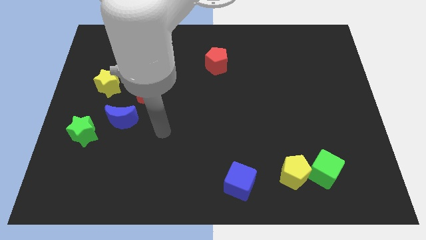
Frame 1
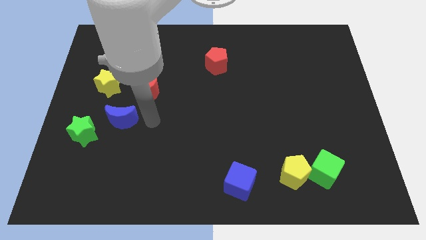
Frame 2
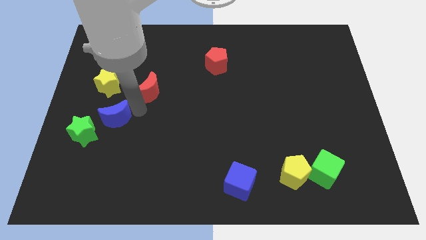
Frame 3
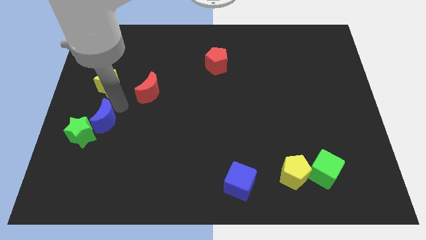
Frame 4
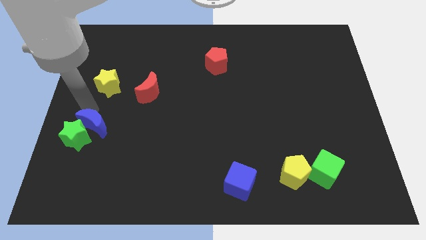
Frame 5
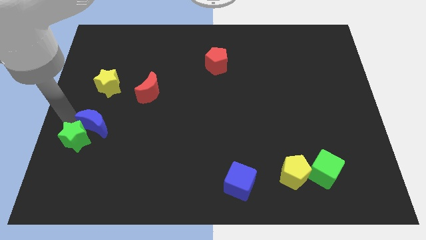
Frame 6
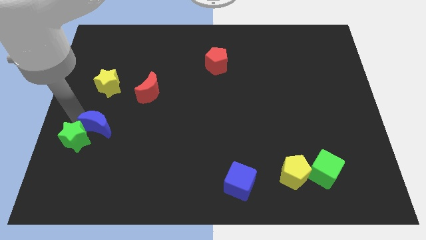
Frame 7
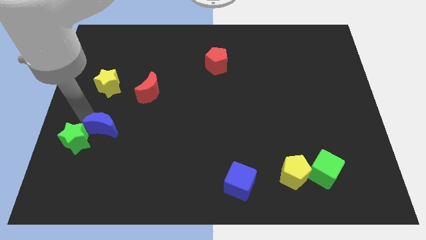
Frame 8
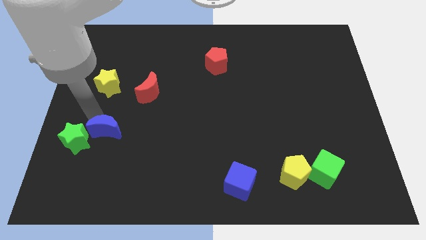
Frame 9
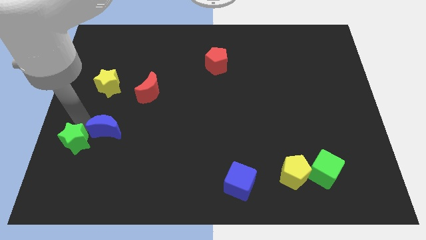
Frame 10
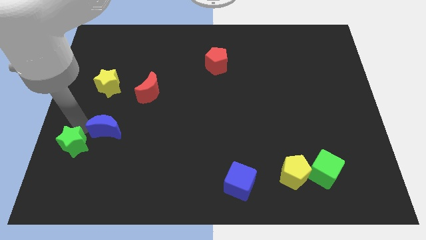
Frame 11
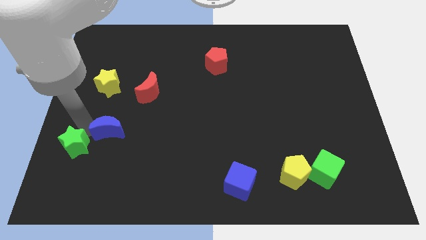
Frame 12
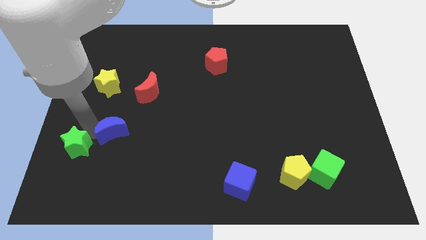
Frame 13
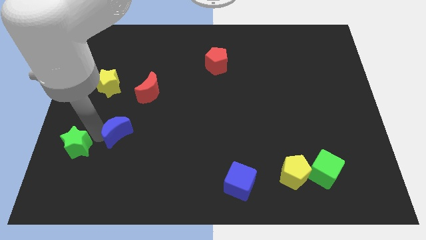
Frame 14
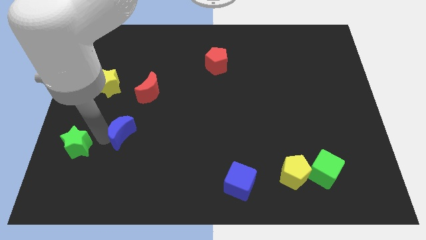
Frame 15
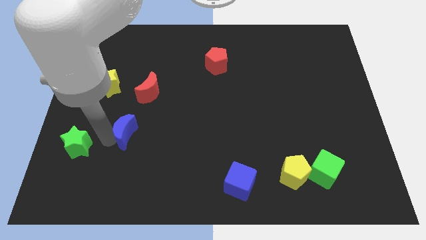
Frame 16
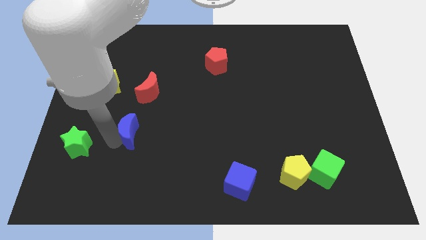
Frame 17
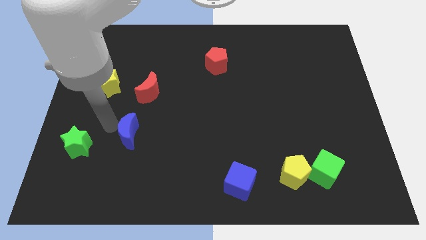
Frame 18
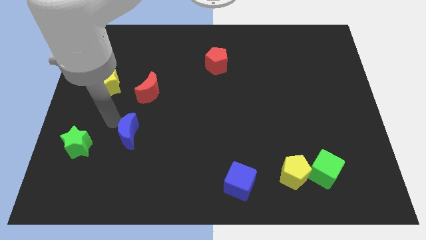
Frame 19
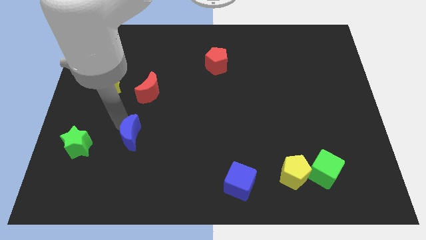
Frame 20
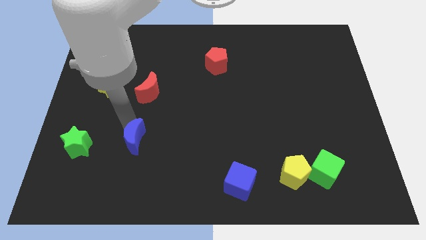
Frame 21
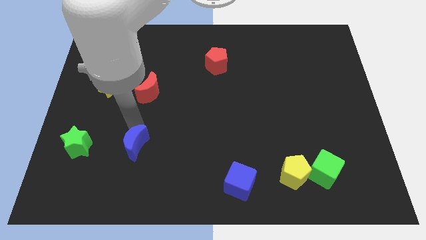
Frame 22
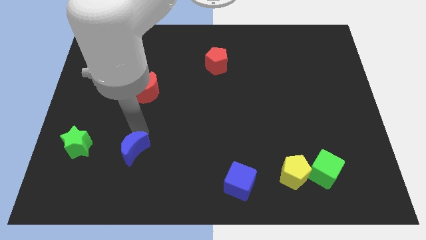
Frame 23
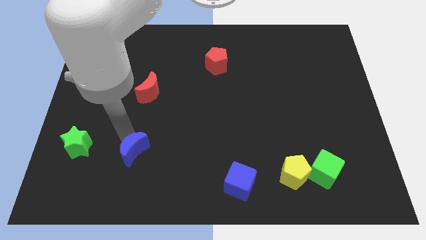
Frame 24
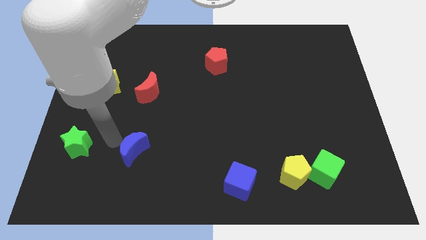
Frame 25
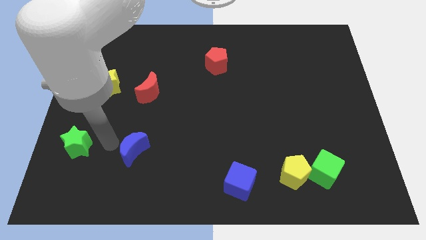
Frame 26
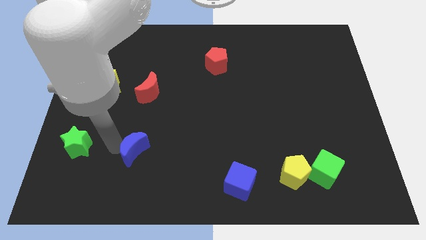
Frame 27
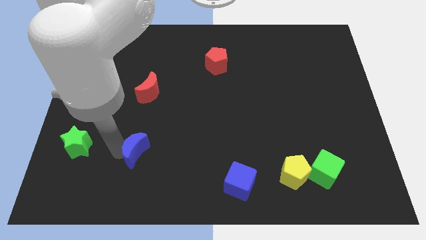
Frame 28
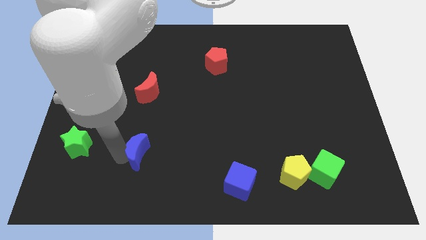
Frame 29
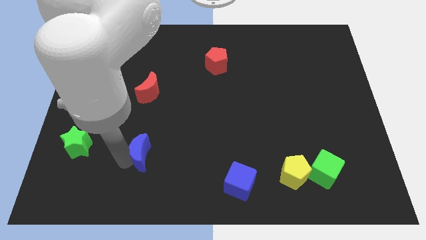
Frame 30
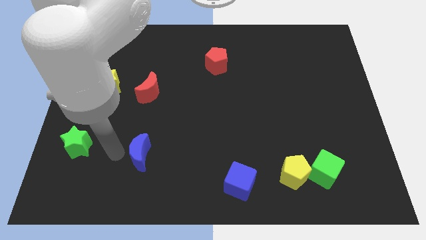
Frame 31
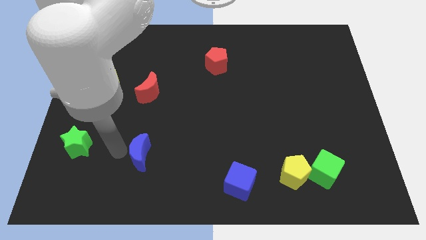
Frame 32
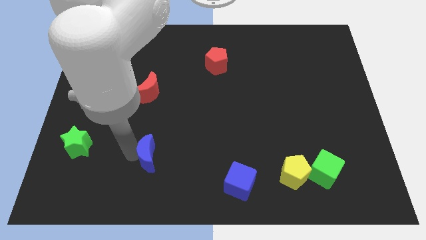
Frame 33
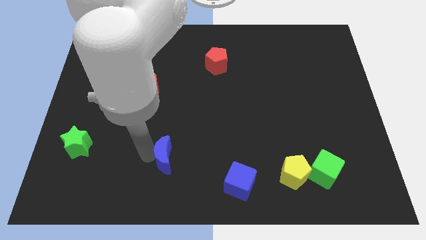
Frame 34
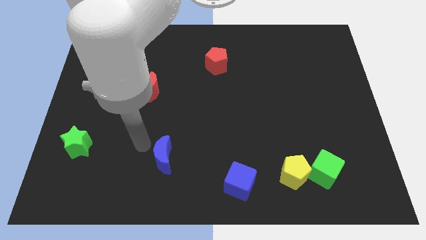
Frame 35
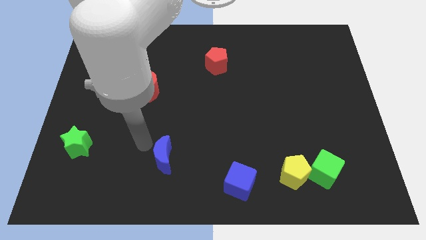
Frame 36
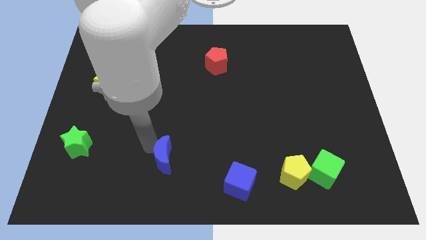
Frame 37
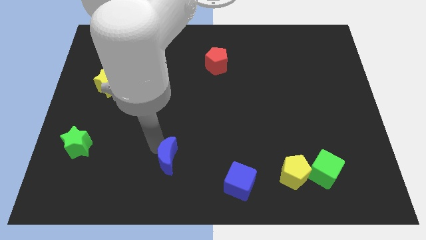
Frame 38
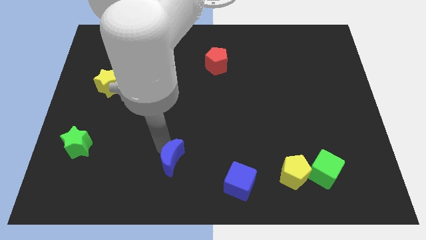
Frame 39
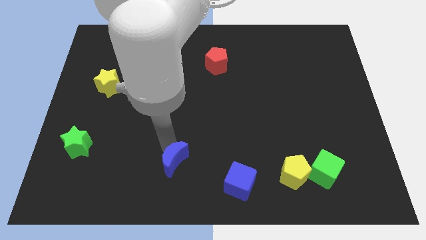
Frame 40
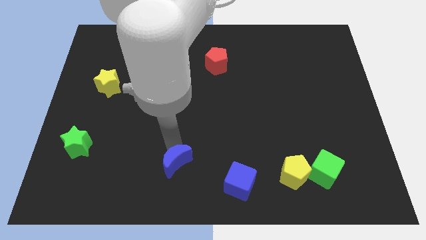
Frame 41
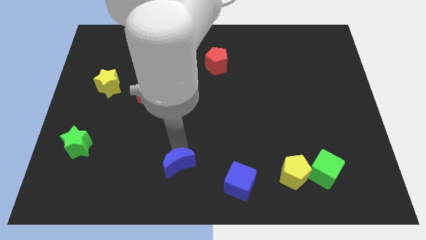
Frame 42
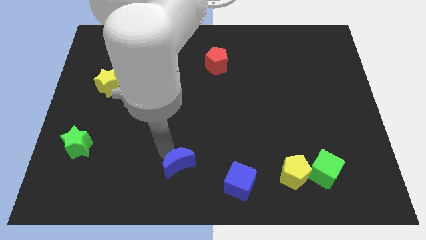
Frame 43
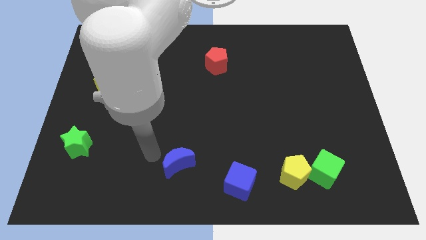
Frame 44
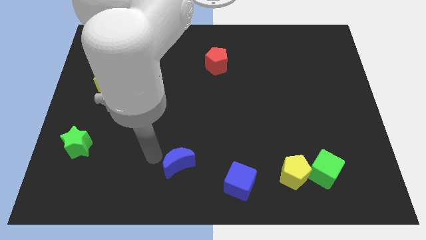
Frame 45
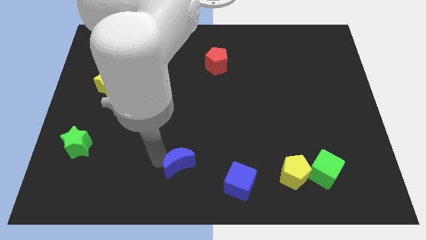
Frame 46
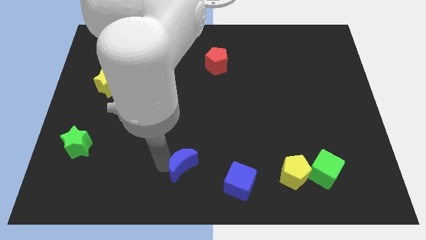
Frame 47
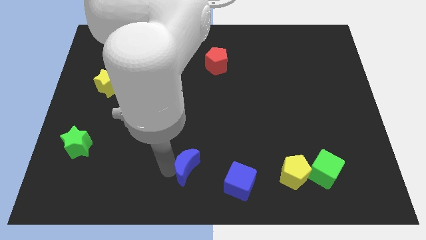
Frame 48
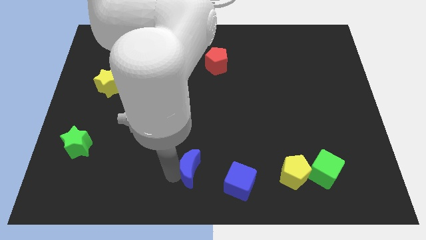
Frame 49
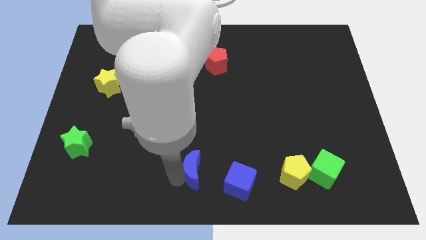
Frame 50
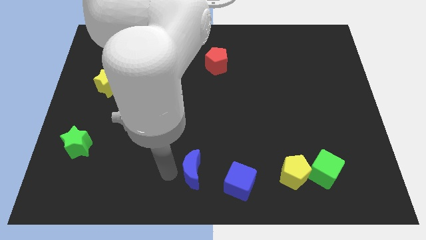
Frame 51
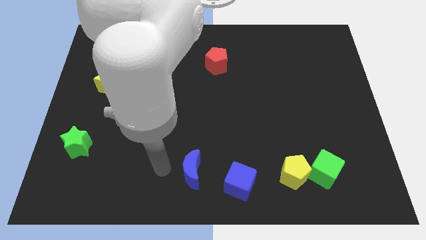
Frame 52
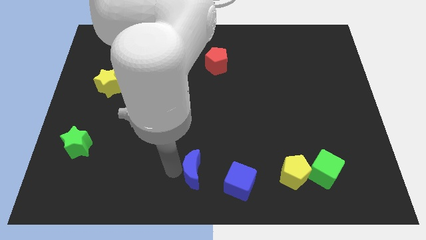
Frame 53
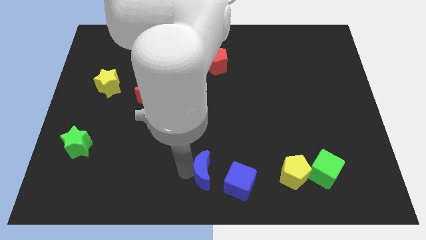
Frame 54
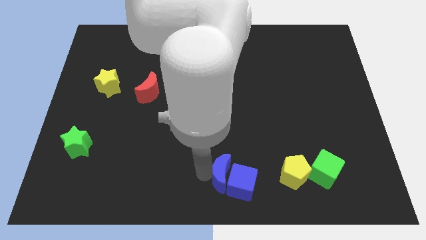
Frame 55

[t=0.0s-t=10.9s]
push the blue moon to the left of the yellow pentagon

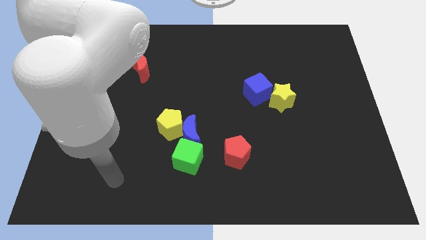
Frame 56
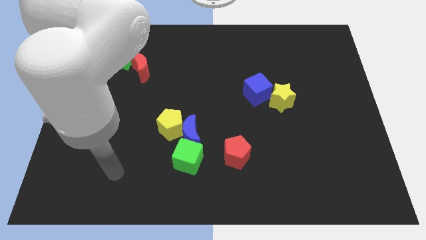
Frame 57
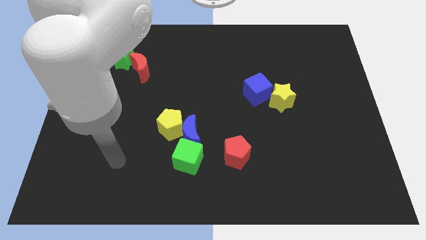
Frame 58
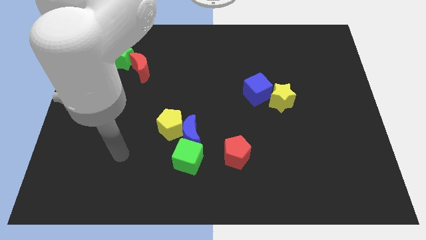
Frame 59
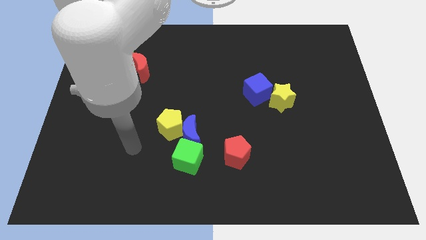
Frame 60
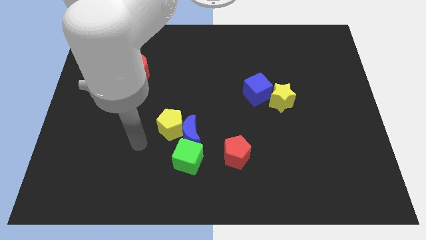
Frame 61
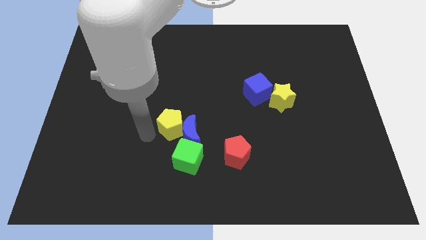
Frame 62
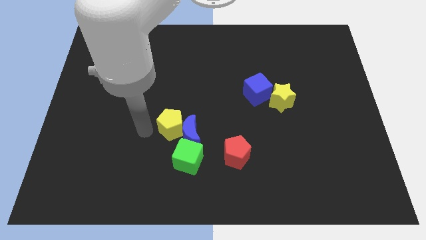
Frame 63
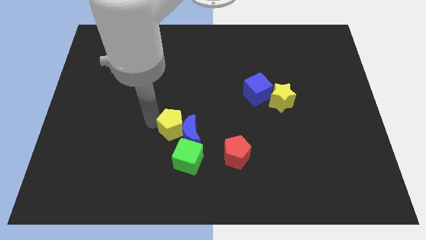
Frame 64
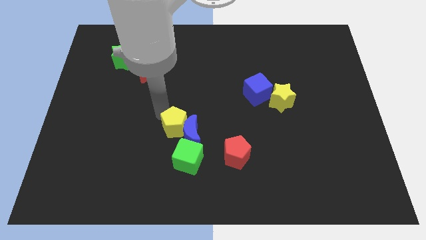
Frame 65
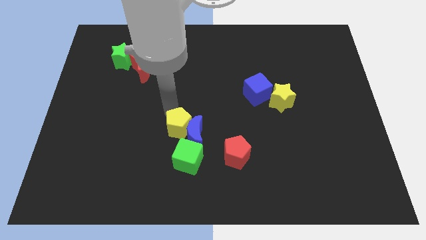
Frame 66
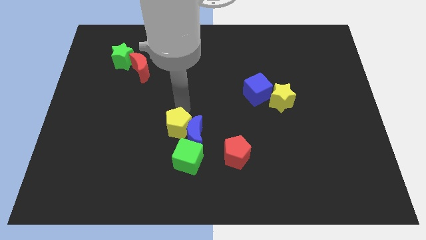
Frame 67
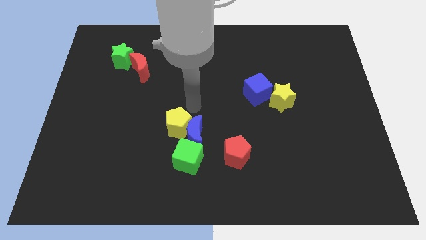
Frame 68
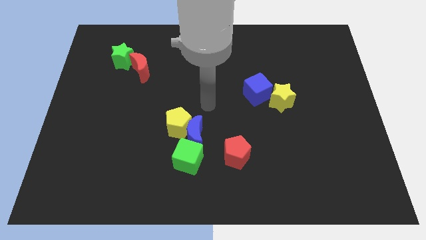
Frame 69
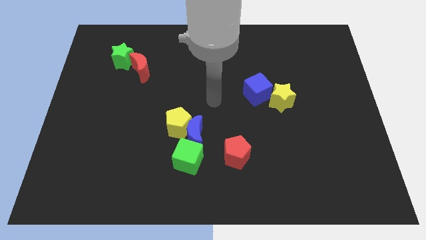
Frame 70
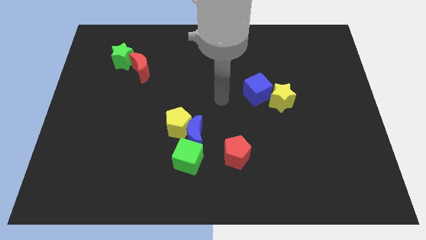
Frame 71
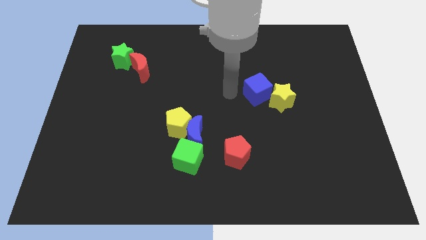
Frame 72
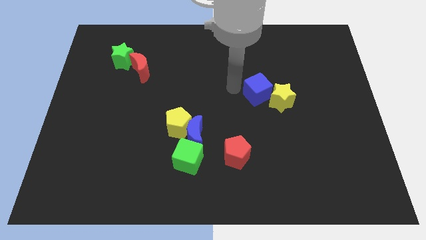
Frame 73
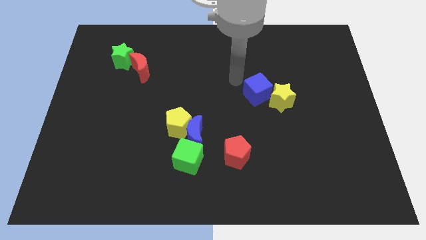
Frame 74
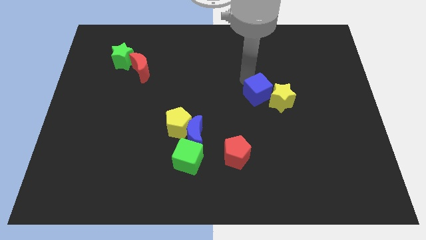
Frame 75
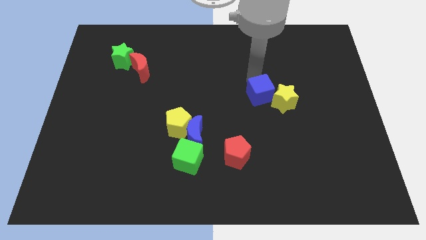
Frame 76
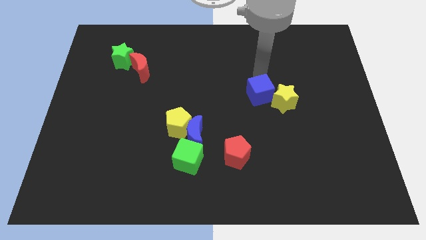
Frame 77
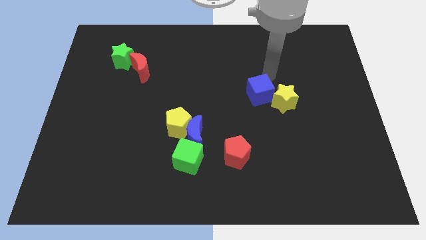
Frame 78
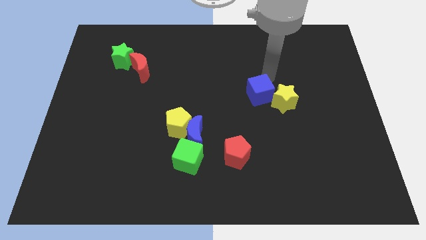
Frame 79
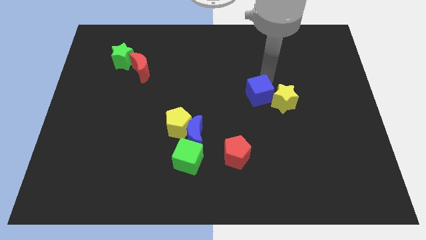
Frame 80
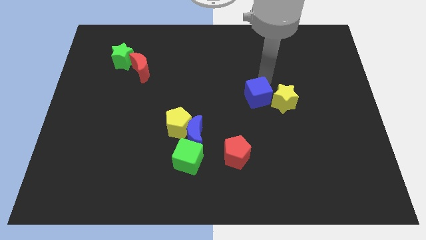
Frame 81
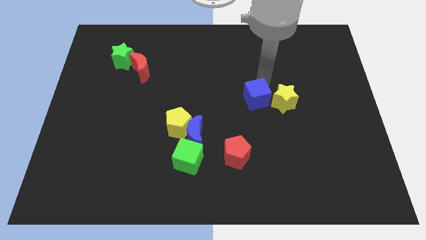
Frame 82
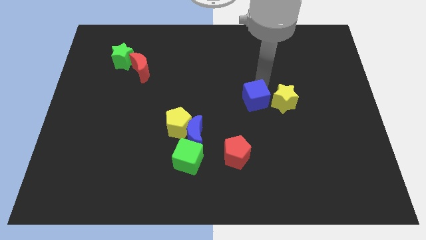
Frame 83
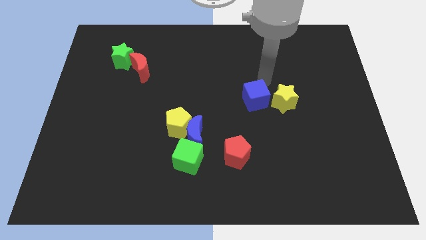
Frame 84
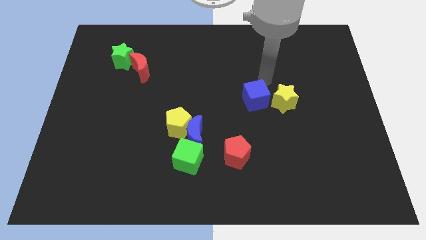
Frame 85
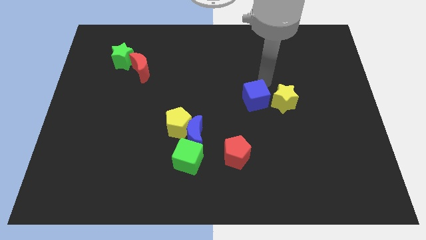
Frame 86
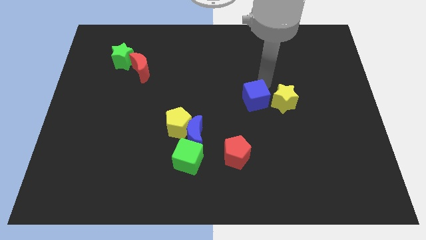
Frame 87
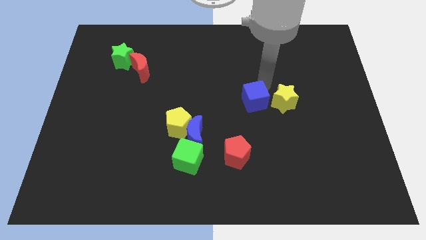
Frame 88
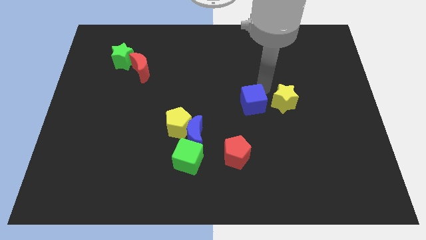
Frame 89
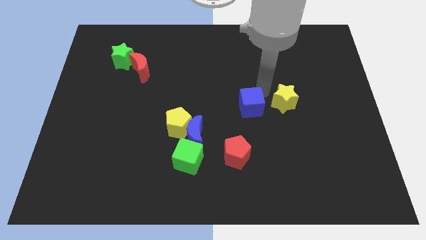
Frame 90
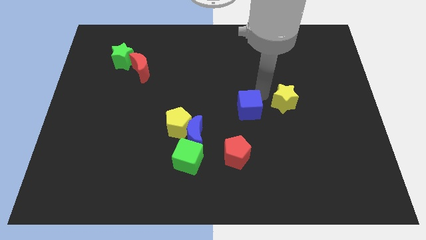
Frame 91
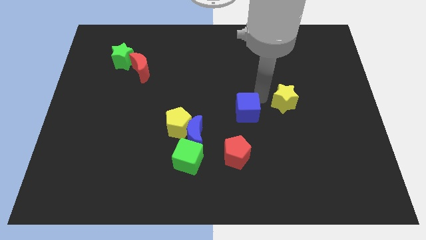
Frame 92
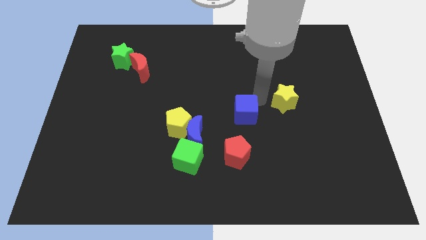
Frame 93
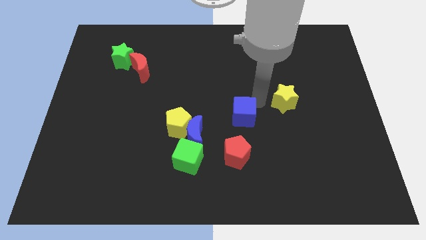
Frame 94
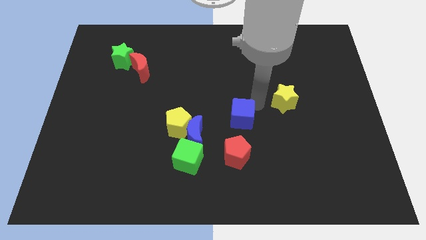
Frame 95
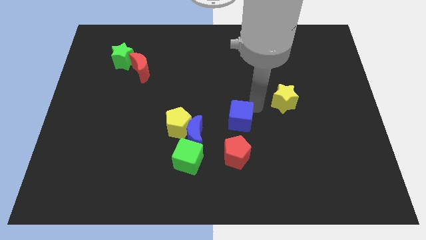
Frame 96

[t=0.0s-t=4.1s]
move the blue cube to the right side of the blue moon
